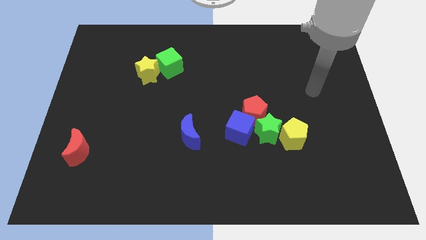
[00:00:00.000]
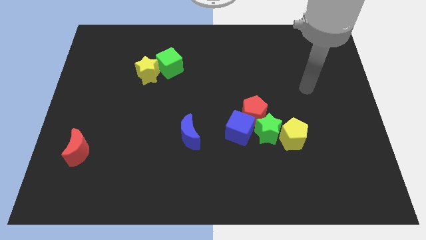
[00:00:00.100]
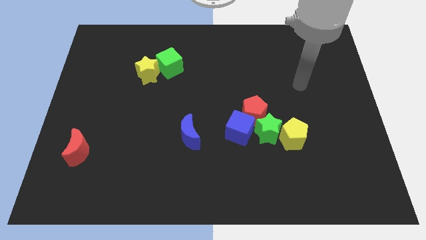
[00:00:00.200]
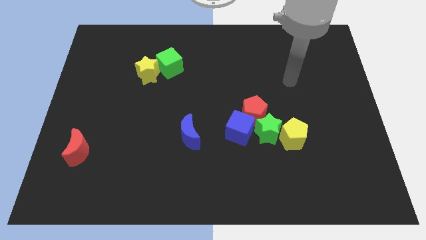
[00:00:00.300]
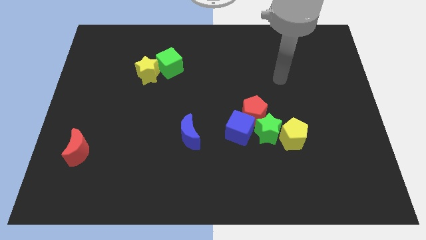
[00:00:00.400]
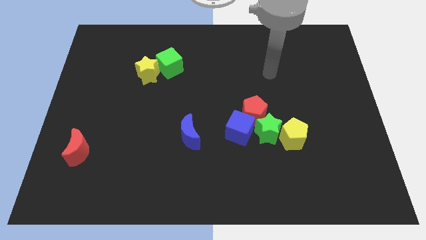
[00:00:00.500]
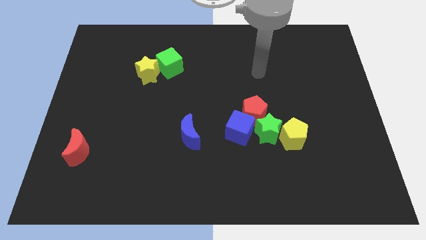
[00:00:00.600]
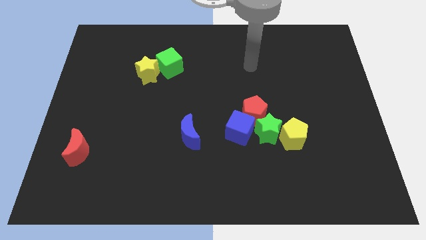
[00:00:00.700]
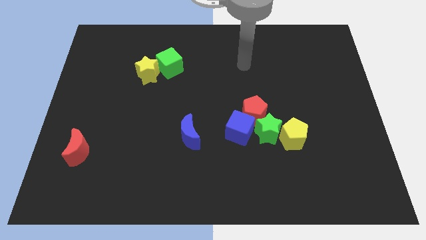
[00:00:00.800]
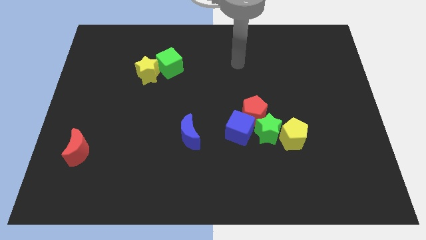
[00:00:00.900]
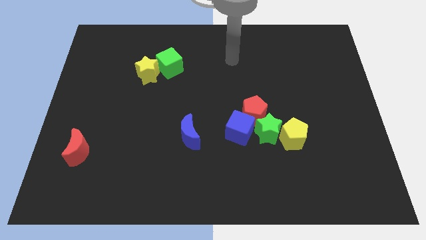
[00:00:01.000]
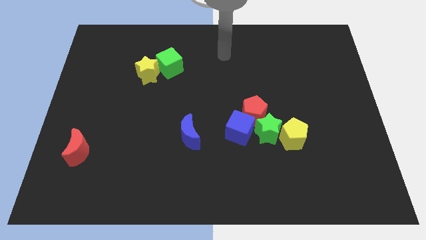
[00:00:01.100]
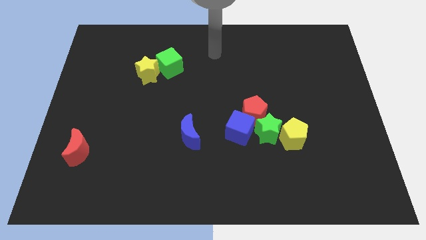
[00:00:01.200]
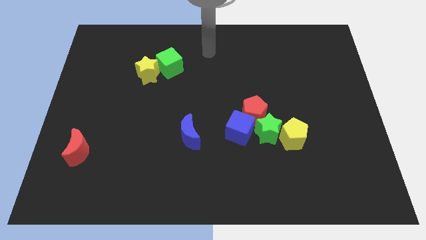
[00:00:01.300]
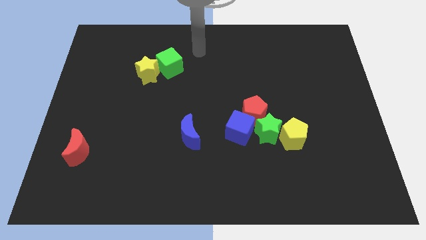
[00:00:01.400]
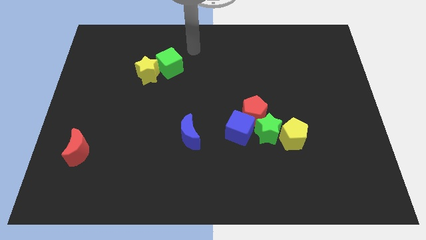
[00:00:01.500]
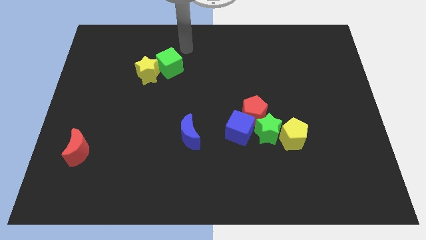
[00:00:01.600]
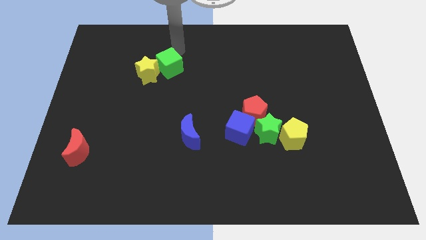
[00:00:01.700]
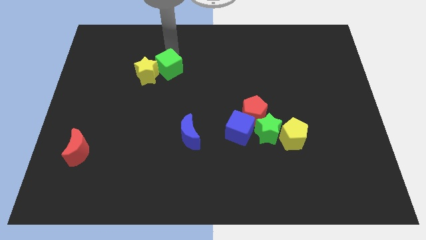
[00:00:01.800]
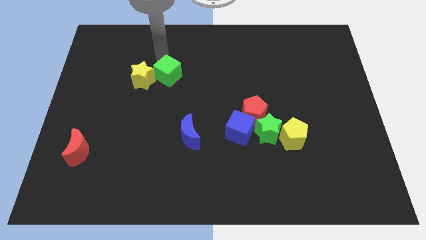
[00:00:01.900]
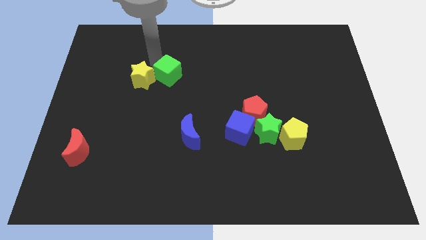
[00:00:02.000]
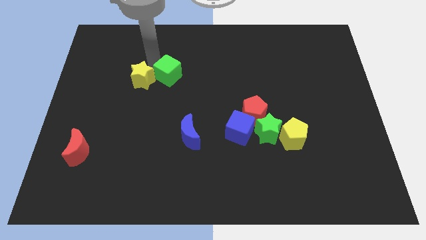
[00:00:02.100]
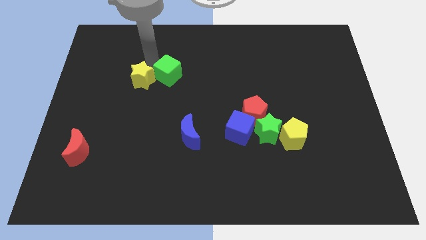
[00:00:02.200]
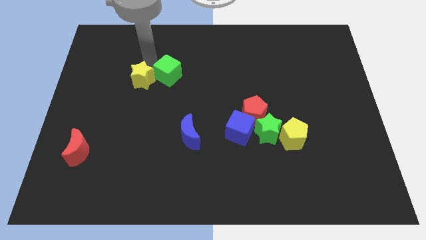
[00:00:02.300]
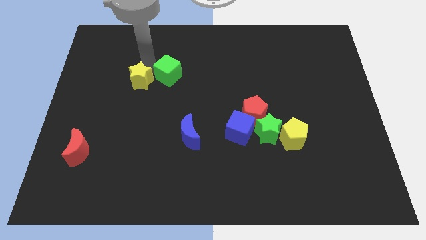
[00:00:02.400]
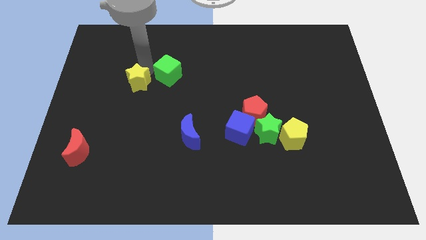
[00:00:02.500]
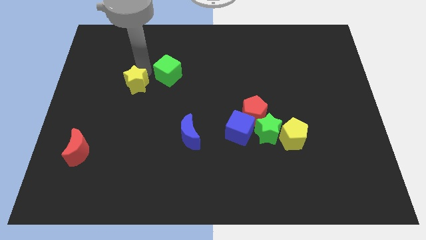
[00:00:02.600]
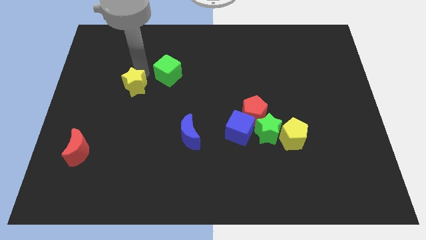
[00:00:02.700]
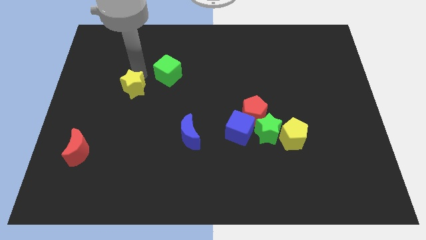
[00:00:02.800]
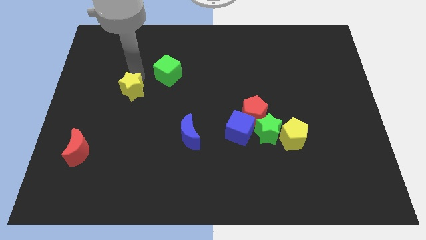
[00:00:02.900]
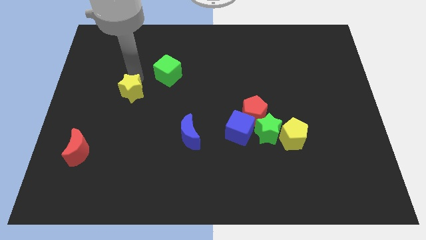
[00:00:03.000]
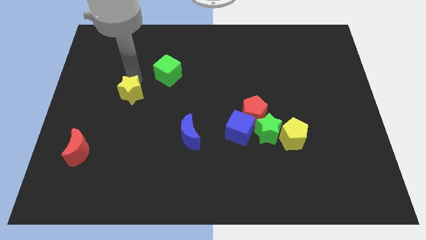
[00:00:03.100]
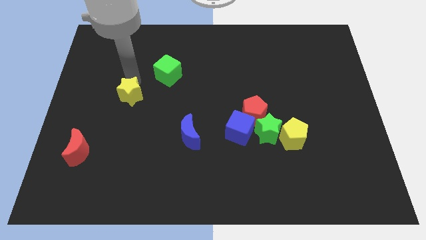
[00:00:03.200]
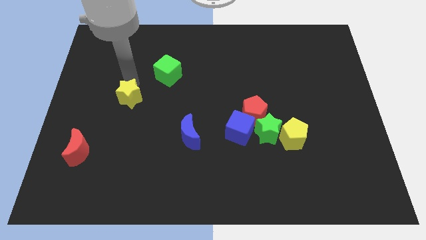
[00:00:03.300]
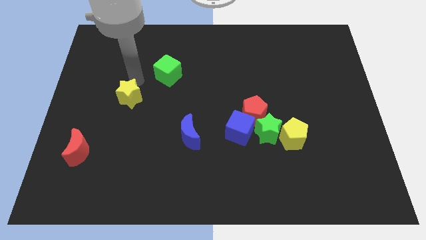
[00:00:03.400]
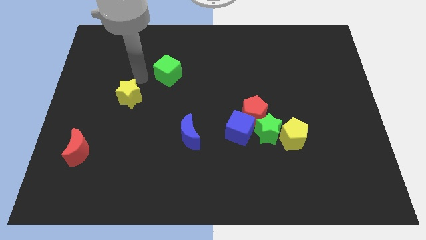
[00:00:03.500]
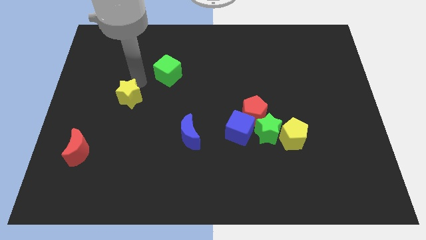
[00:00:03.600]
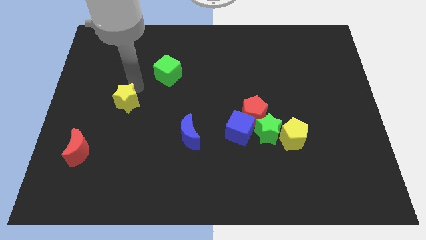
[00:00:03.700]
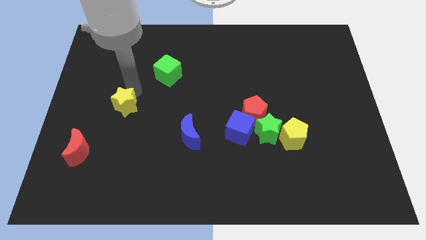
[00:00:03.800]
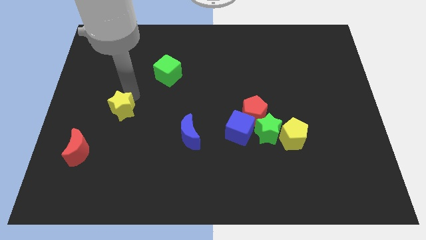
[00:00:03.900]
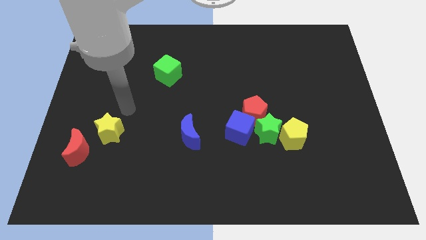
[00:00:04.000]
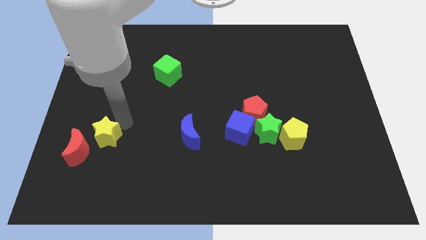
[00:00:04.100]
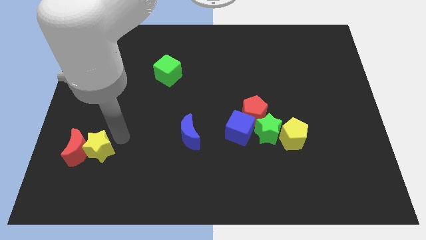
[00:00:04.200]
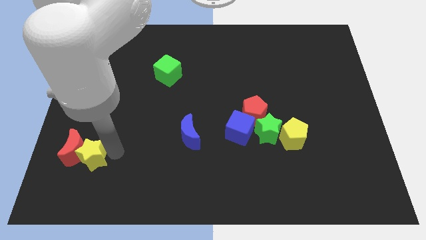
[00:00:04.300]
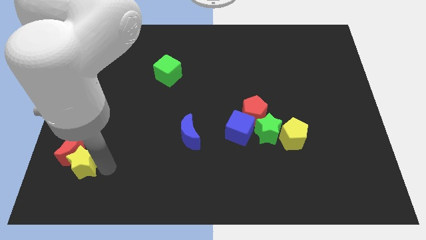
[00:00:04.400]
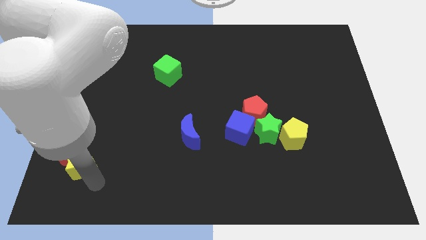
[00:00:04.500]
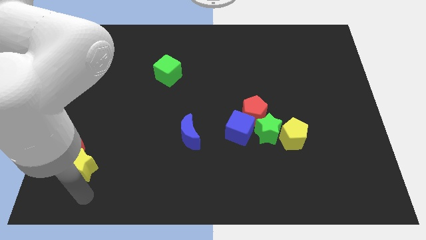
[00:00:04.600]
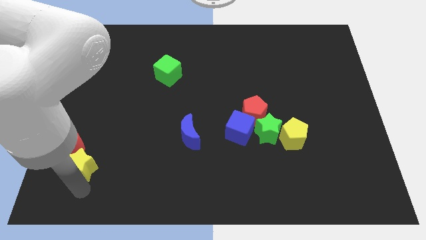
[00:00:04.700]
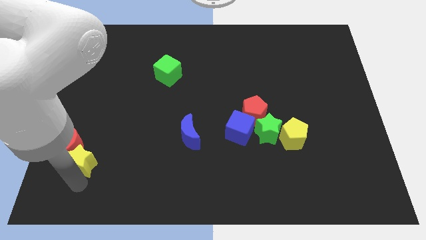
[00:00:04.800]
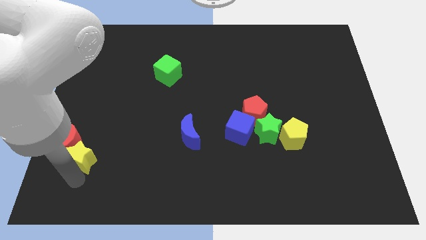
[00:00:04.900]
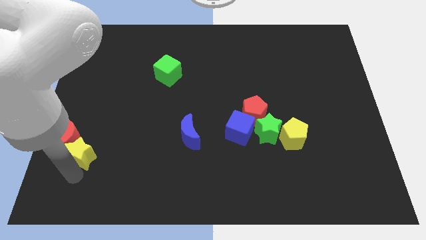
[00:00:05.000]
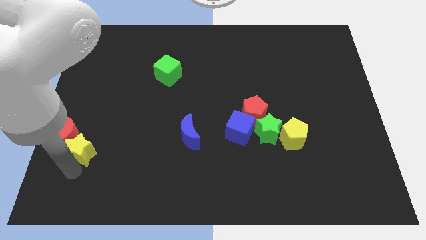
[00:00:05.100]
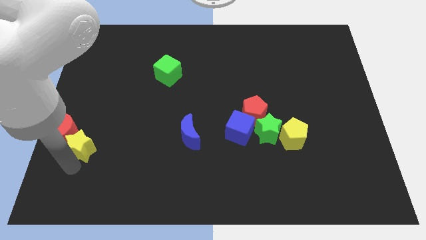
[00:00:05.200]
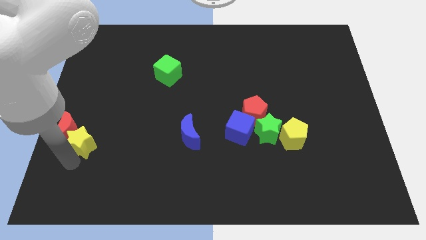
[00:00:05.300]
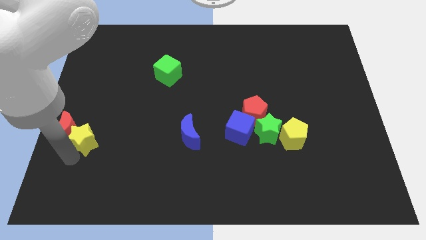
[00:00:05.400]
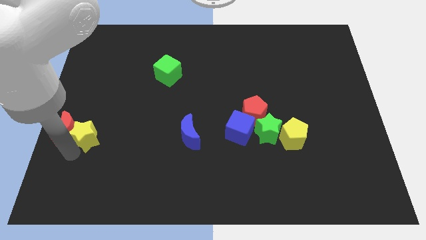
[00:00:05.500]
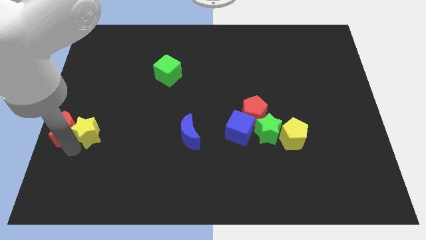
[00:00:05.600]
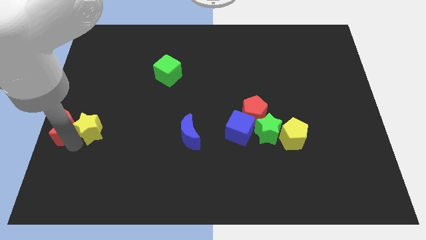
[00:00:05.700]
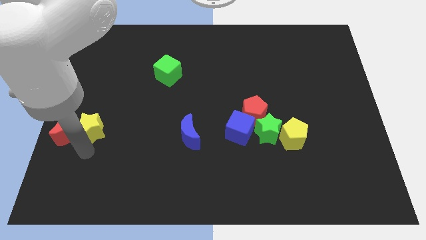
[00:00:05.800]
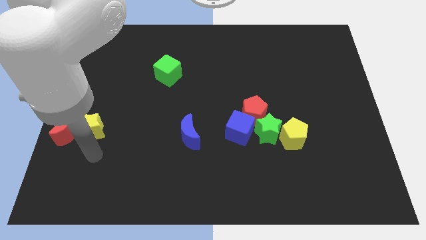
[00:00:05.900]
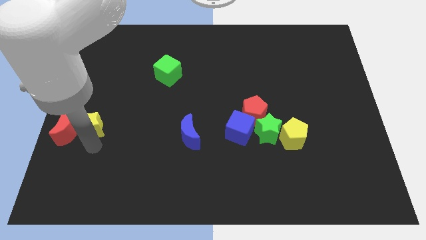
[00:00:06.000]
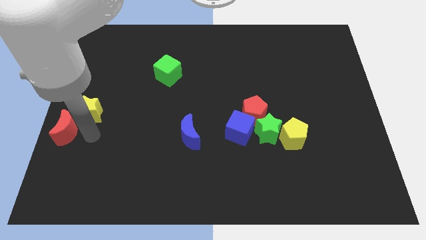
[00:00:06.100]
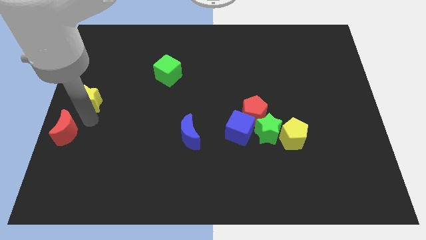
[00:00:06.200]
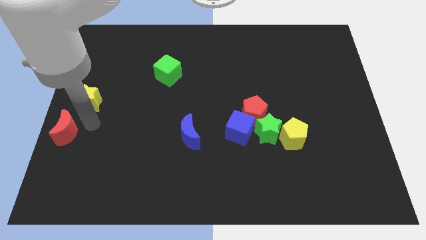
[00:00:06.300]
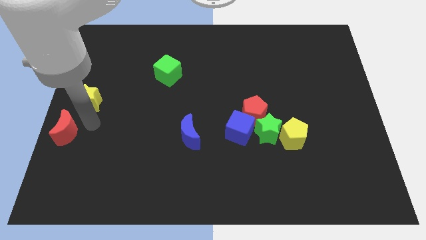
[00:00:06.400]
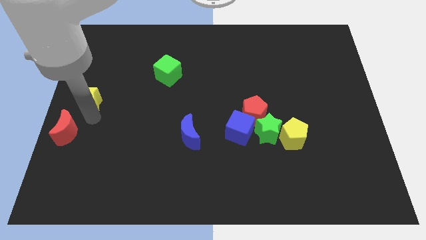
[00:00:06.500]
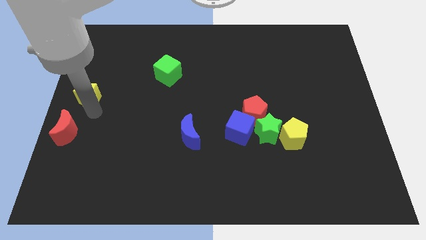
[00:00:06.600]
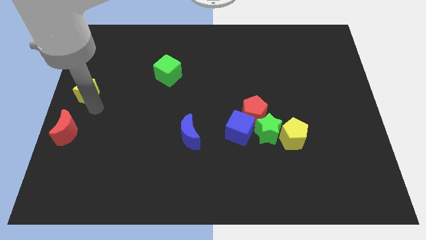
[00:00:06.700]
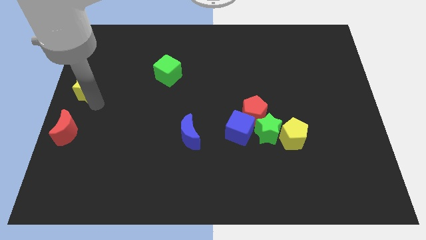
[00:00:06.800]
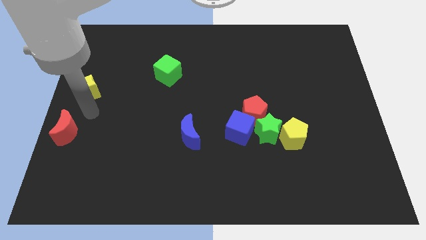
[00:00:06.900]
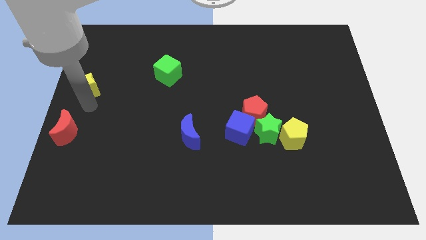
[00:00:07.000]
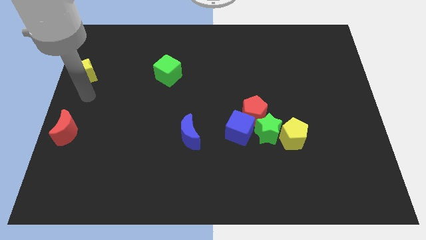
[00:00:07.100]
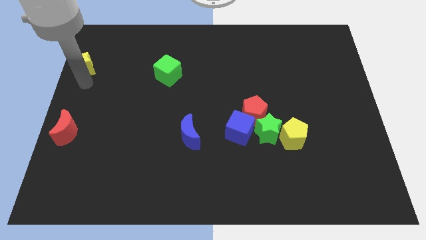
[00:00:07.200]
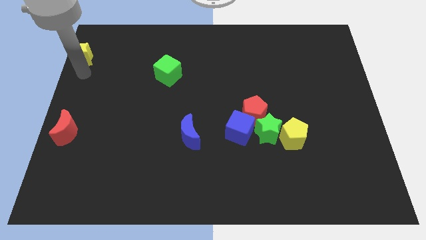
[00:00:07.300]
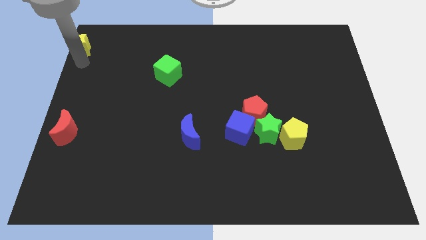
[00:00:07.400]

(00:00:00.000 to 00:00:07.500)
push the yellow star to the top left corner
